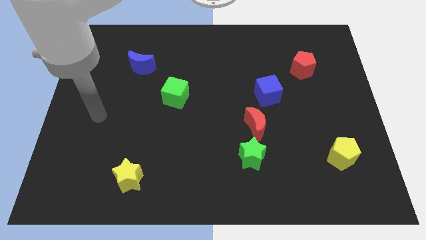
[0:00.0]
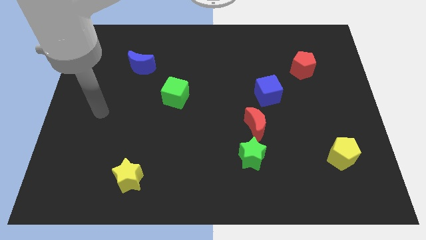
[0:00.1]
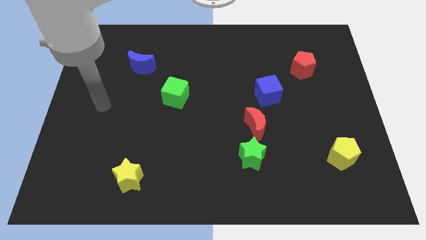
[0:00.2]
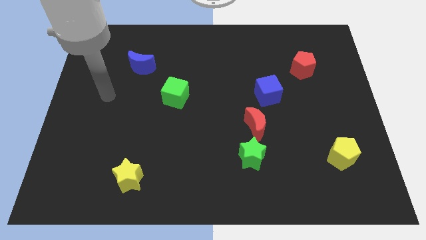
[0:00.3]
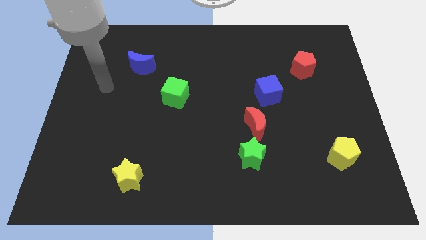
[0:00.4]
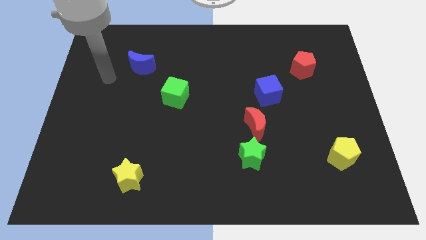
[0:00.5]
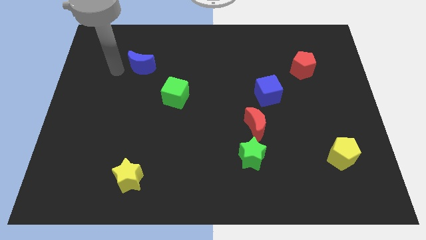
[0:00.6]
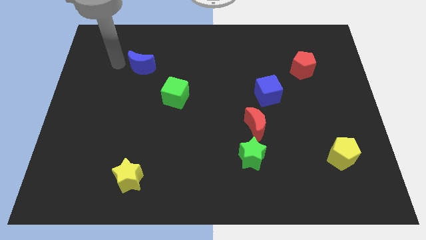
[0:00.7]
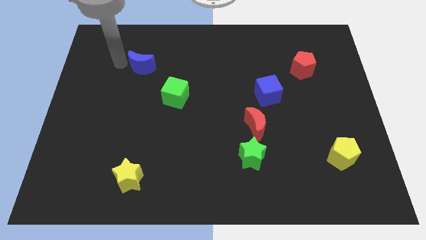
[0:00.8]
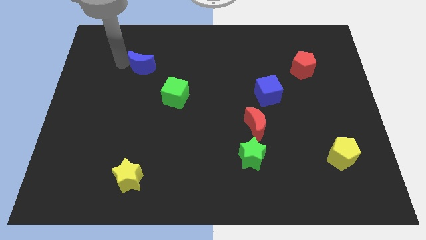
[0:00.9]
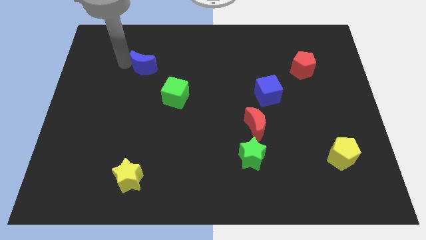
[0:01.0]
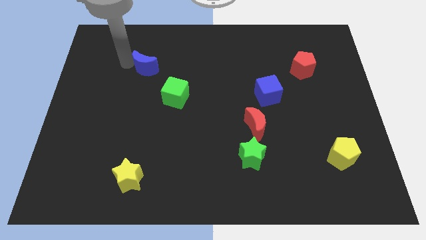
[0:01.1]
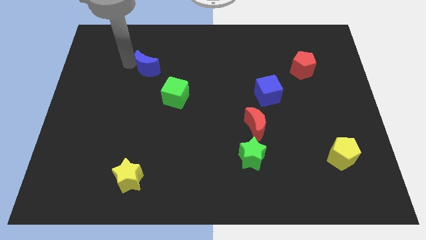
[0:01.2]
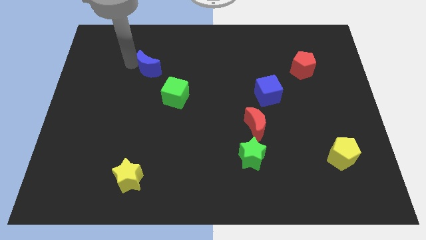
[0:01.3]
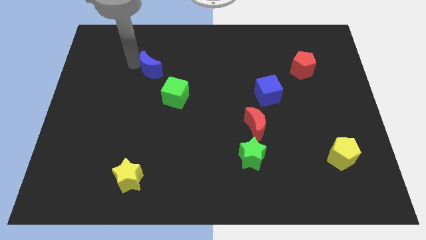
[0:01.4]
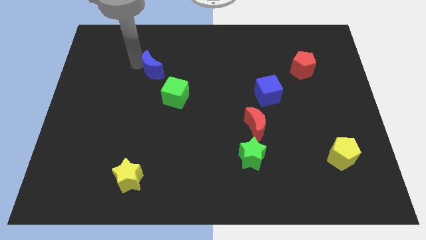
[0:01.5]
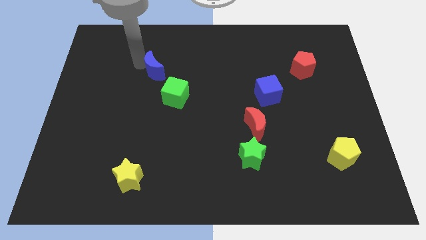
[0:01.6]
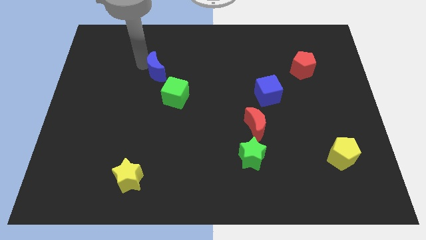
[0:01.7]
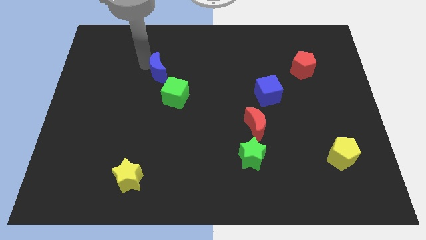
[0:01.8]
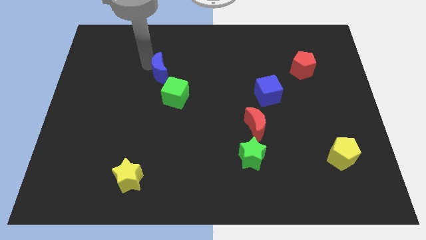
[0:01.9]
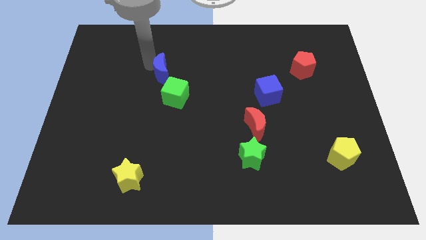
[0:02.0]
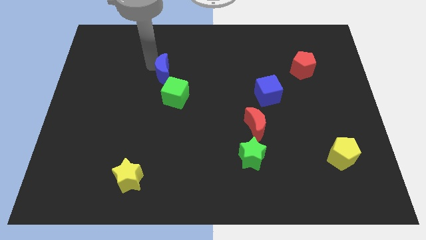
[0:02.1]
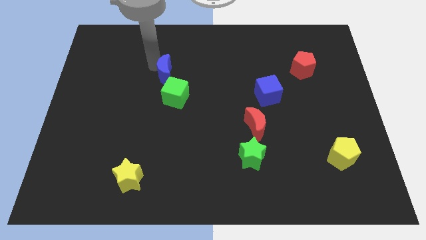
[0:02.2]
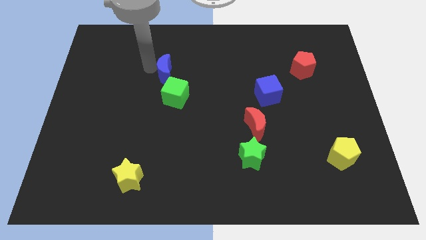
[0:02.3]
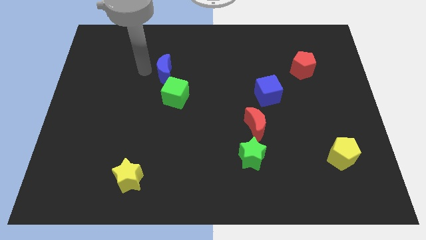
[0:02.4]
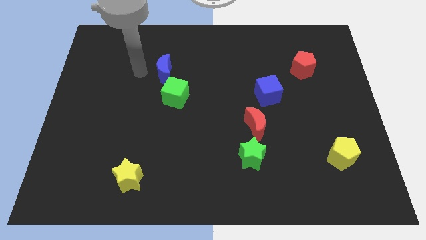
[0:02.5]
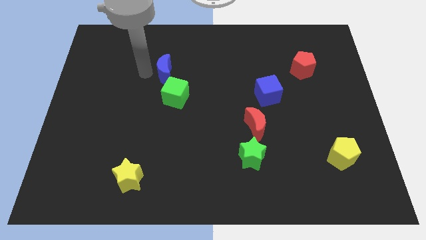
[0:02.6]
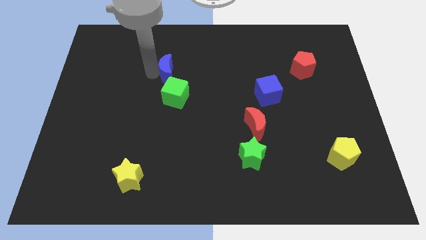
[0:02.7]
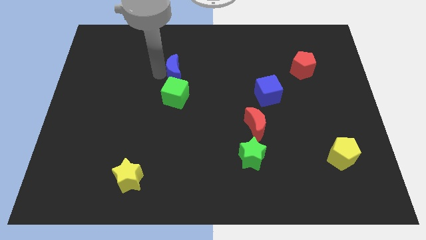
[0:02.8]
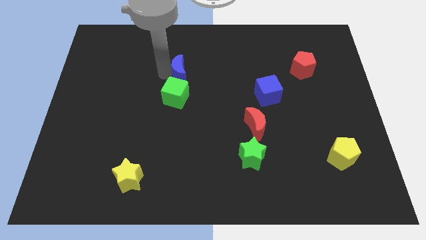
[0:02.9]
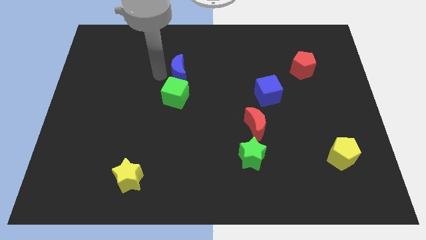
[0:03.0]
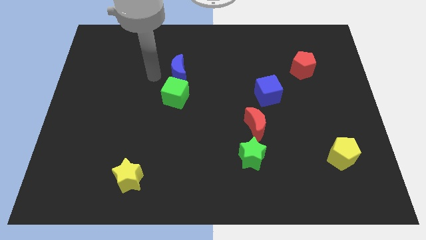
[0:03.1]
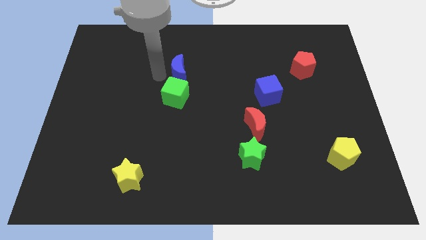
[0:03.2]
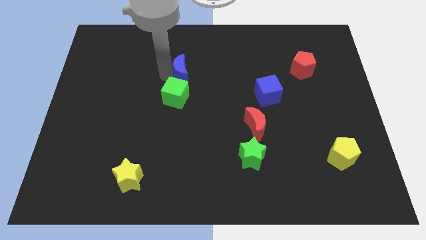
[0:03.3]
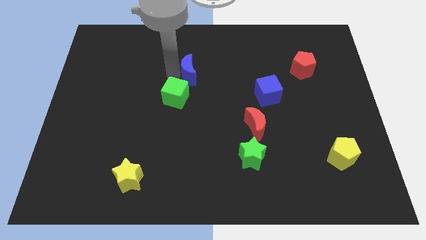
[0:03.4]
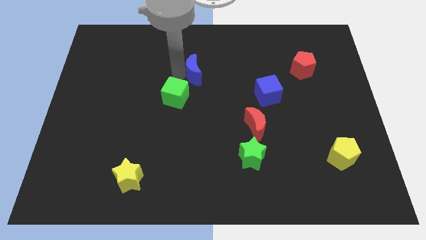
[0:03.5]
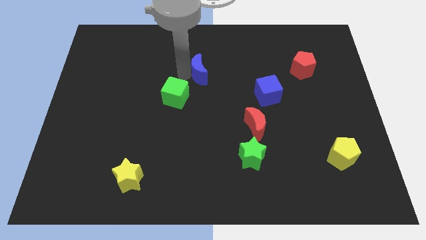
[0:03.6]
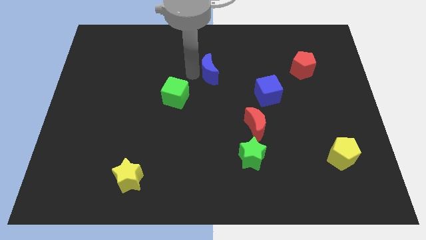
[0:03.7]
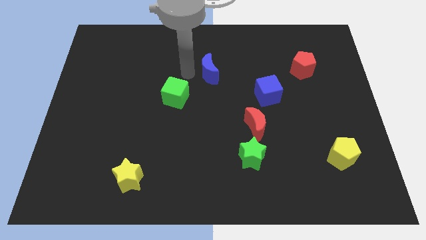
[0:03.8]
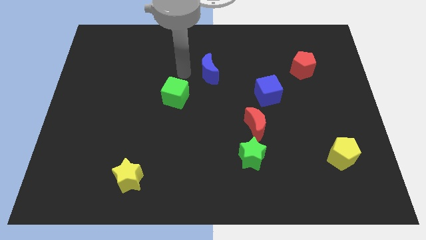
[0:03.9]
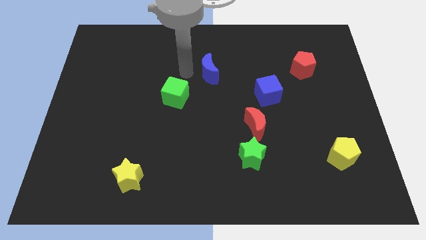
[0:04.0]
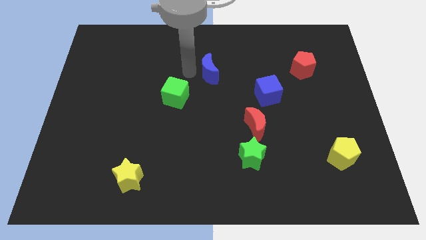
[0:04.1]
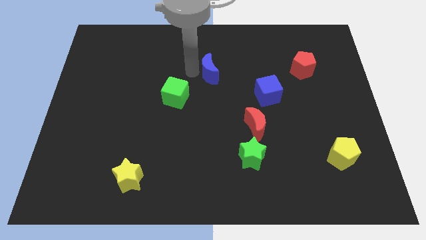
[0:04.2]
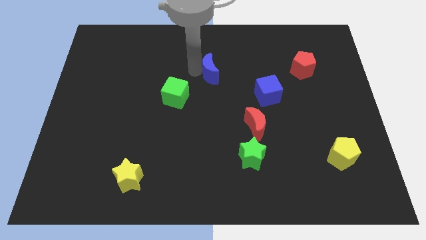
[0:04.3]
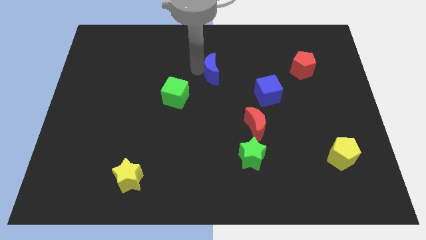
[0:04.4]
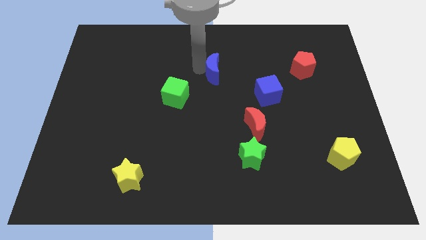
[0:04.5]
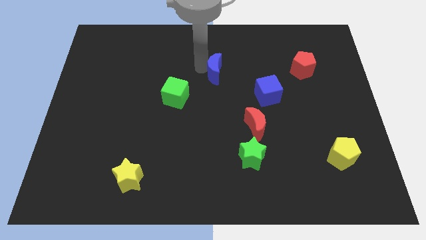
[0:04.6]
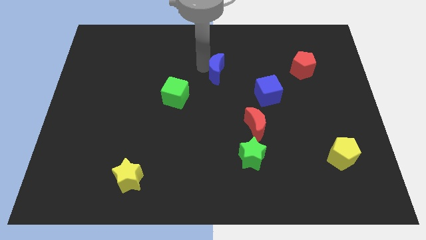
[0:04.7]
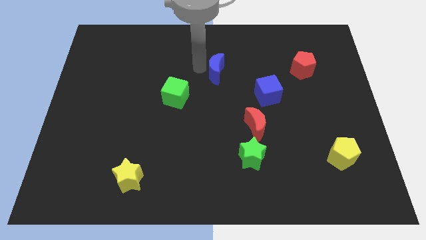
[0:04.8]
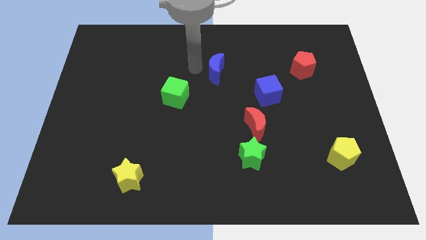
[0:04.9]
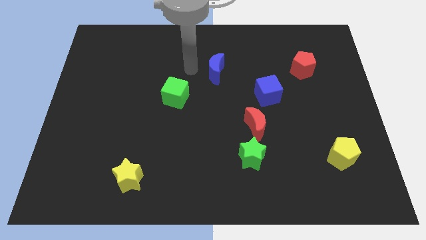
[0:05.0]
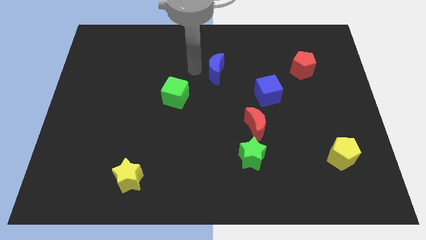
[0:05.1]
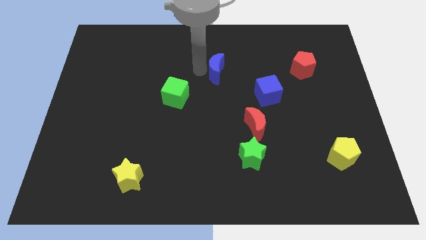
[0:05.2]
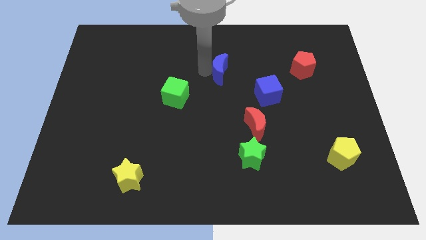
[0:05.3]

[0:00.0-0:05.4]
slide the blue moon right

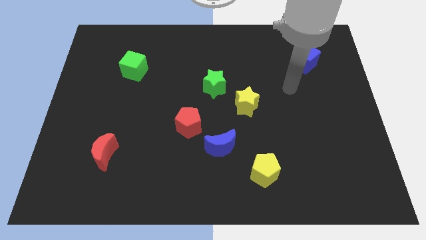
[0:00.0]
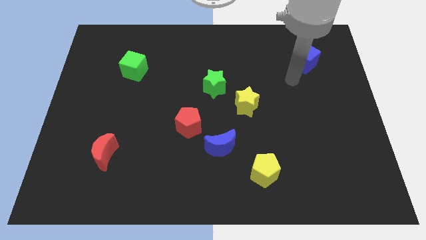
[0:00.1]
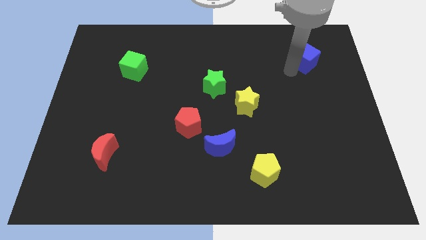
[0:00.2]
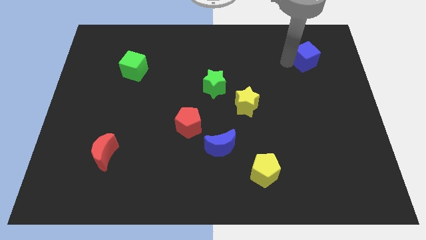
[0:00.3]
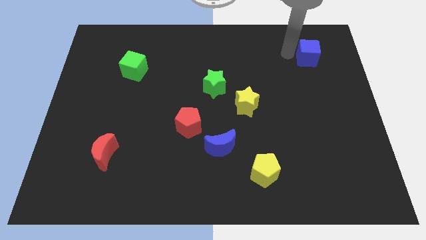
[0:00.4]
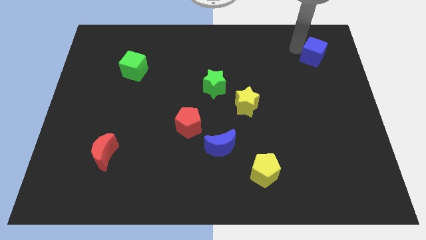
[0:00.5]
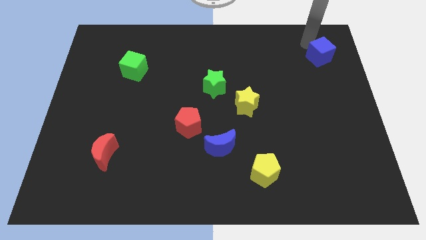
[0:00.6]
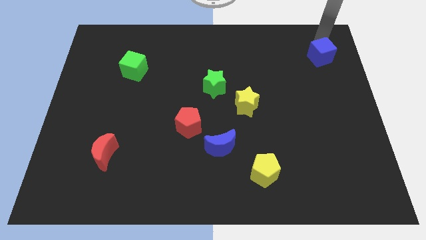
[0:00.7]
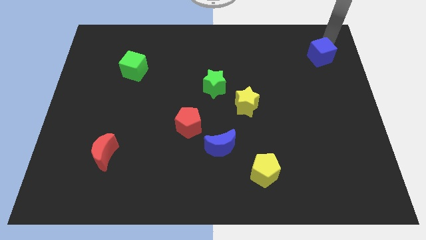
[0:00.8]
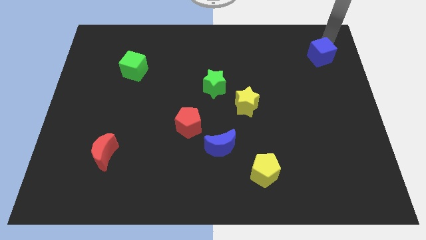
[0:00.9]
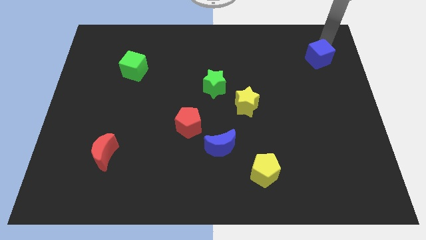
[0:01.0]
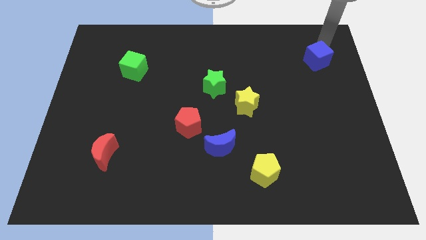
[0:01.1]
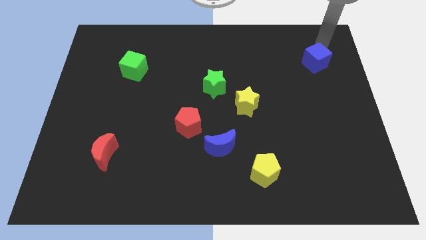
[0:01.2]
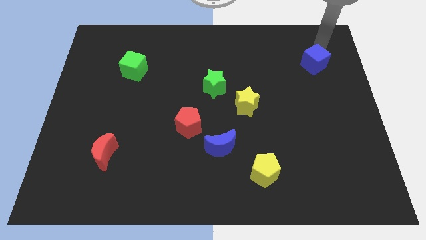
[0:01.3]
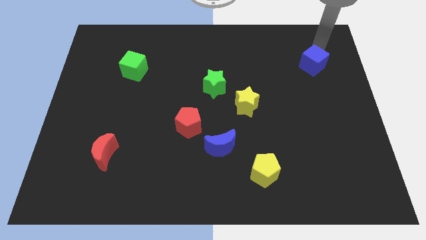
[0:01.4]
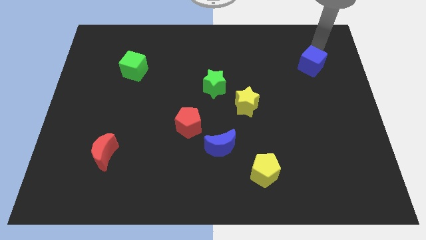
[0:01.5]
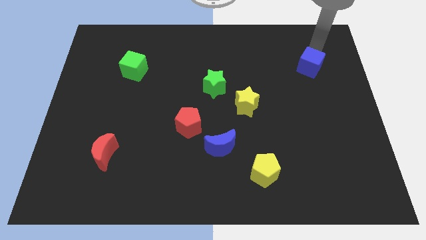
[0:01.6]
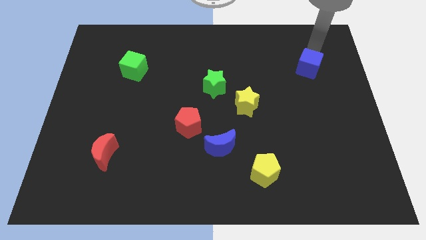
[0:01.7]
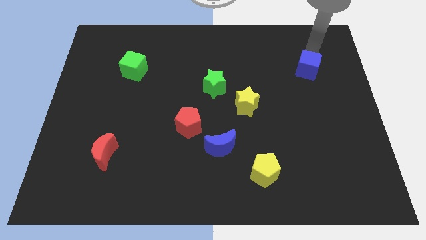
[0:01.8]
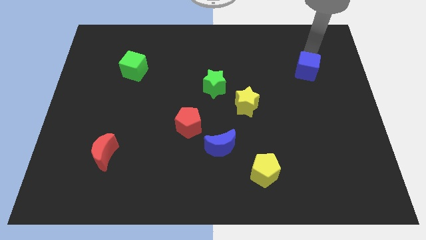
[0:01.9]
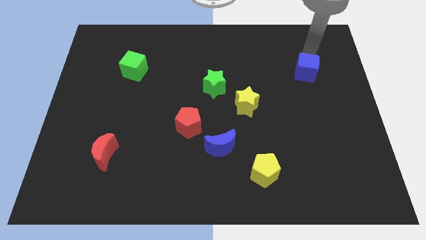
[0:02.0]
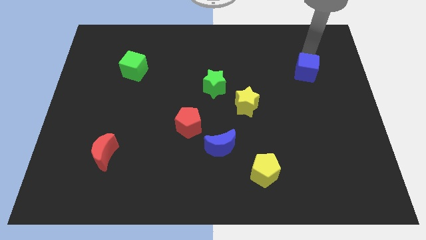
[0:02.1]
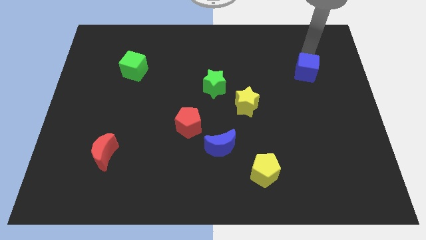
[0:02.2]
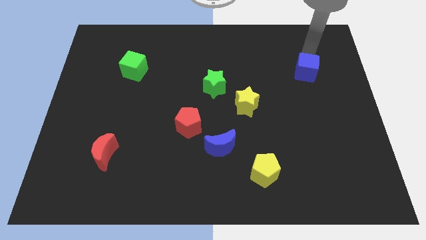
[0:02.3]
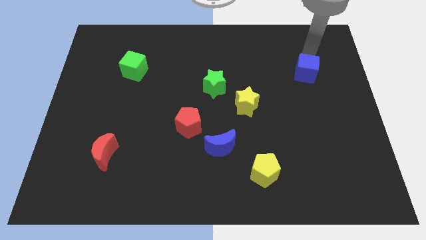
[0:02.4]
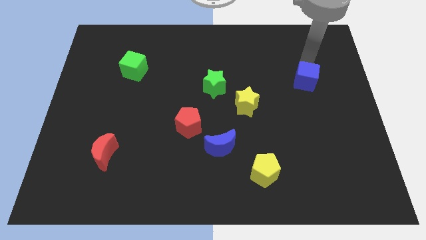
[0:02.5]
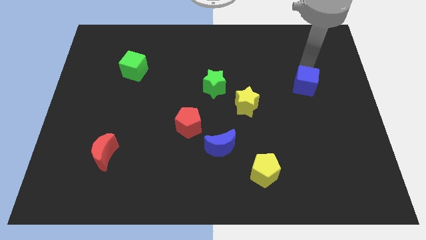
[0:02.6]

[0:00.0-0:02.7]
move the blue cube downwards somewhat
